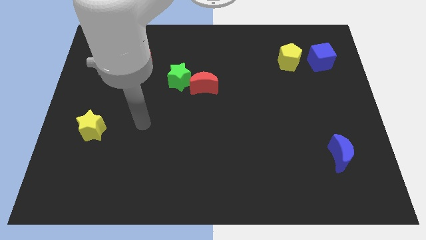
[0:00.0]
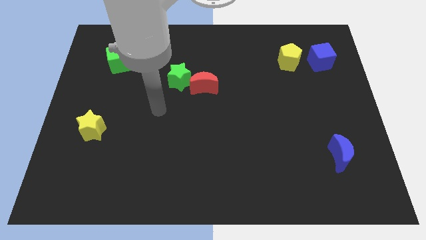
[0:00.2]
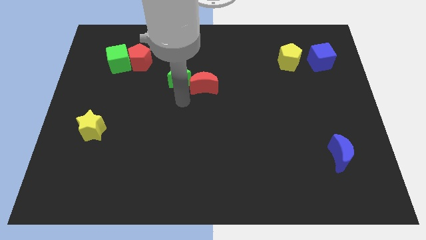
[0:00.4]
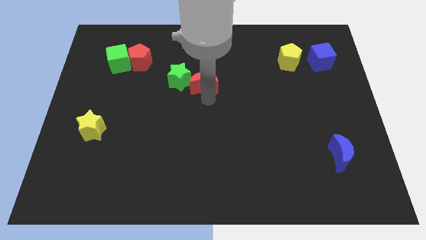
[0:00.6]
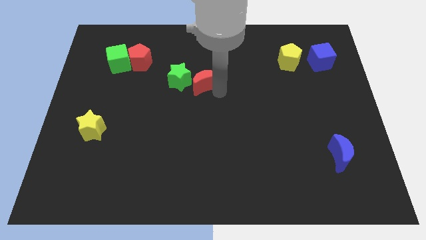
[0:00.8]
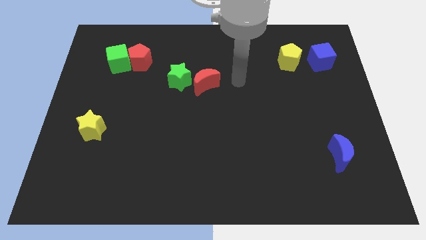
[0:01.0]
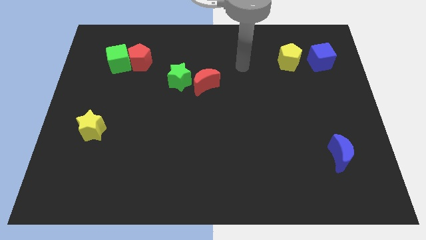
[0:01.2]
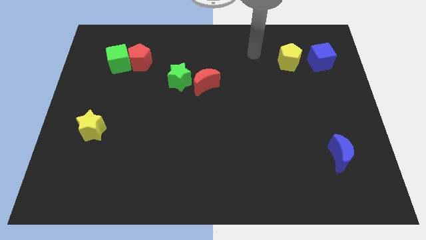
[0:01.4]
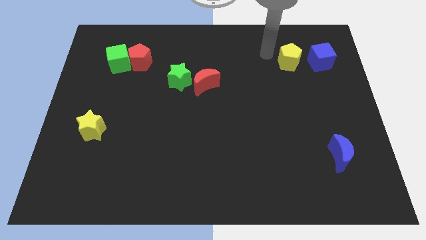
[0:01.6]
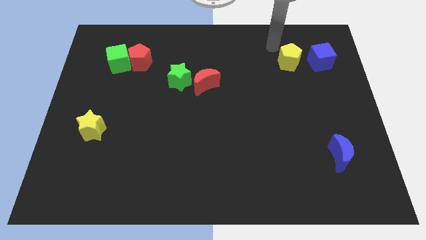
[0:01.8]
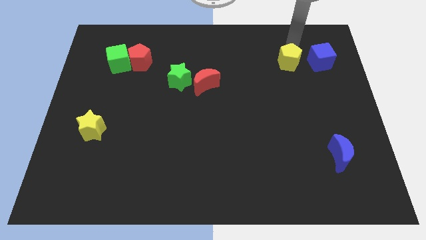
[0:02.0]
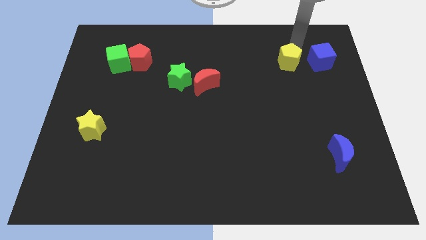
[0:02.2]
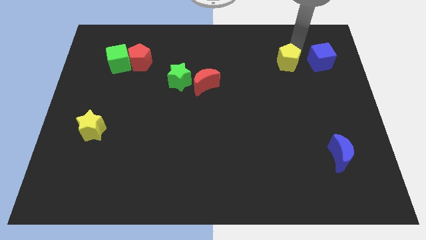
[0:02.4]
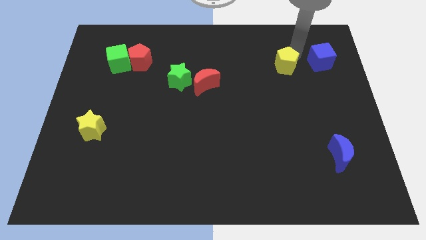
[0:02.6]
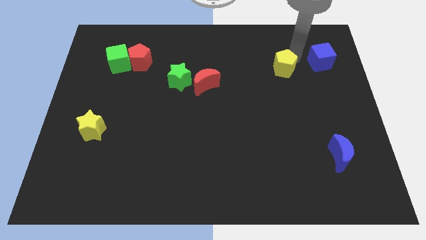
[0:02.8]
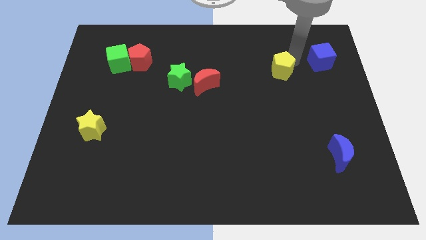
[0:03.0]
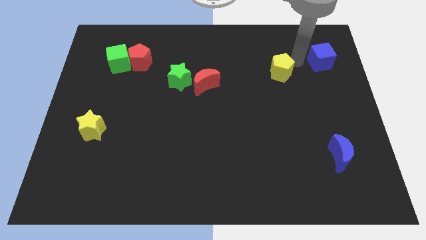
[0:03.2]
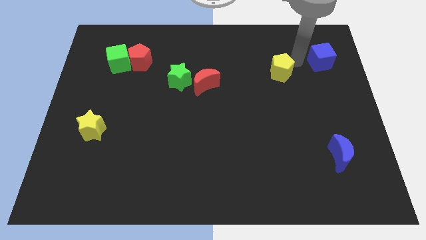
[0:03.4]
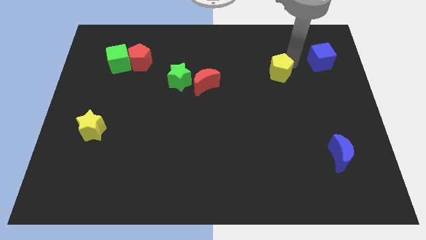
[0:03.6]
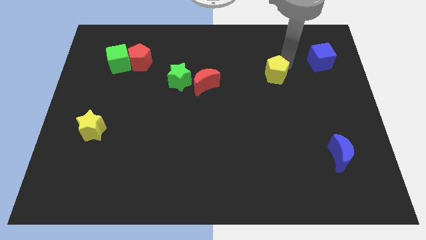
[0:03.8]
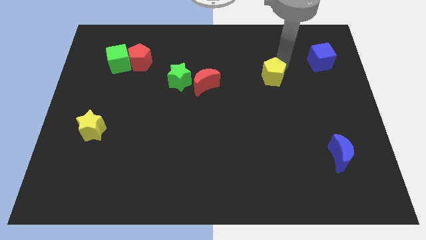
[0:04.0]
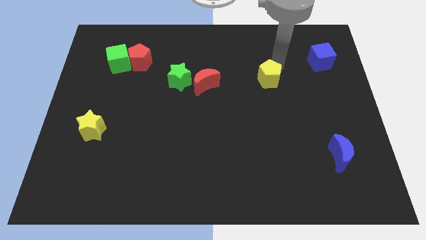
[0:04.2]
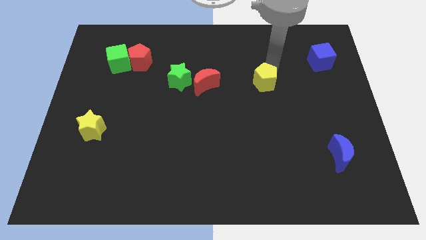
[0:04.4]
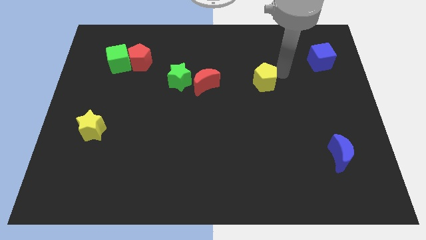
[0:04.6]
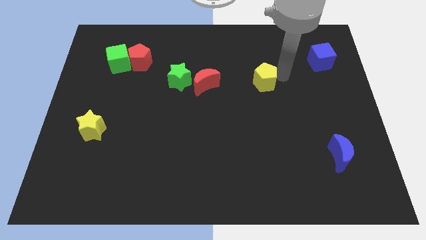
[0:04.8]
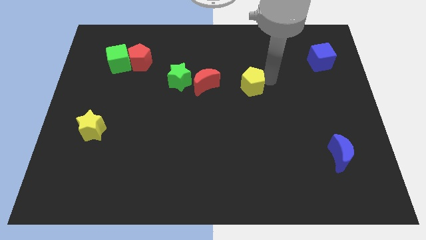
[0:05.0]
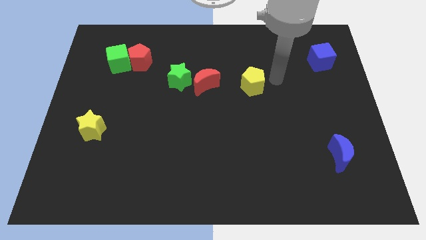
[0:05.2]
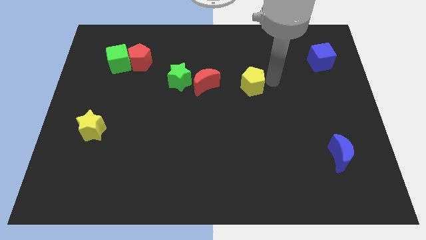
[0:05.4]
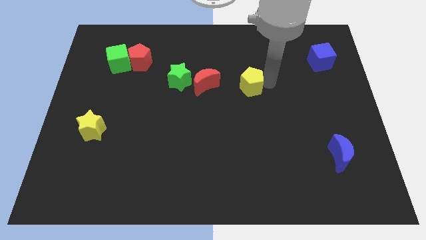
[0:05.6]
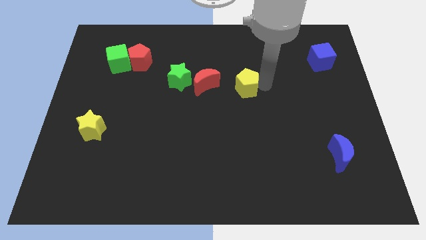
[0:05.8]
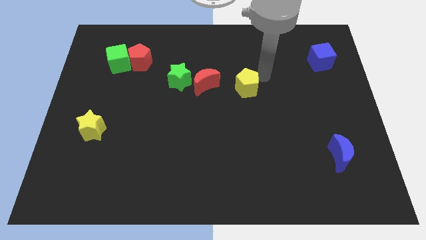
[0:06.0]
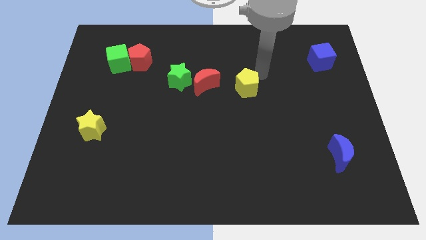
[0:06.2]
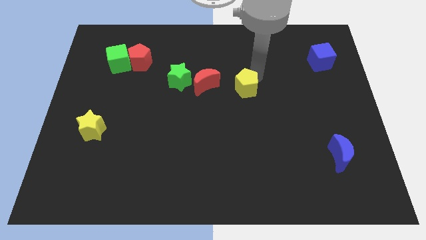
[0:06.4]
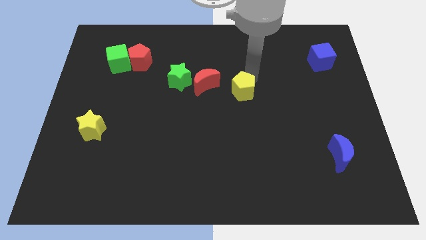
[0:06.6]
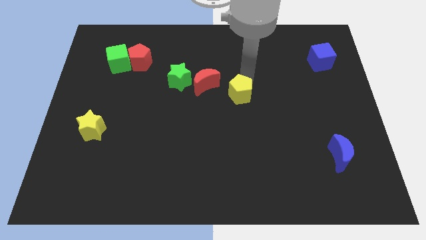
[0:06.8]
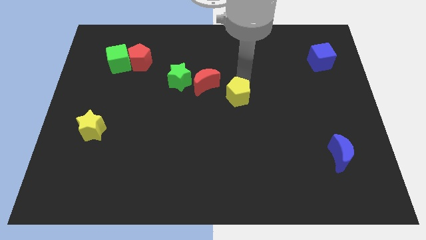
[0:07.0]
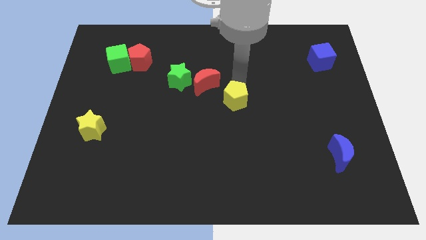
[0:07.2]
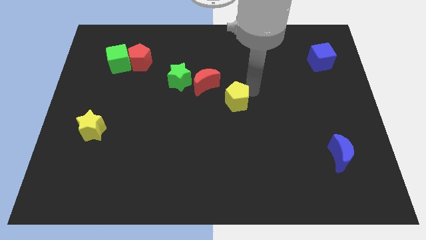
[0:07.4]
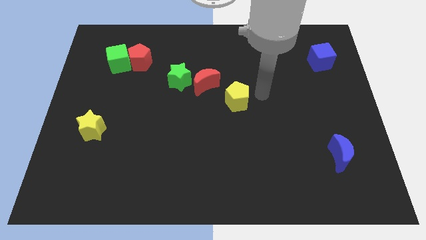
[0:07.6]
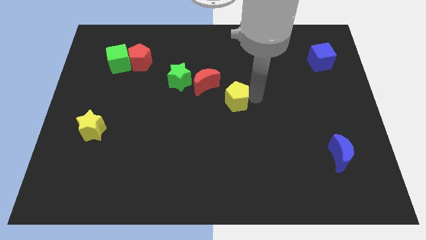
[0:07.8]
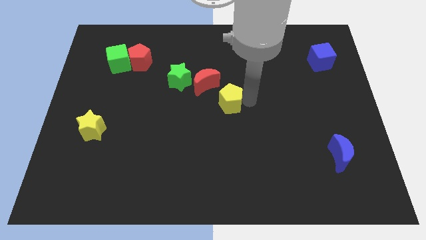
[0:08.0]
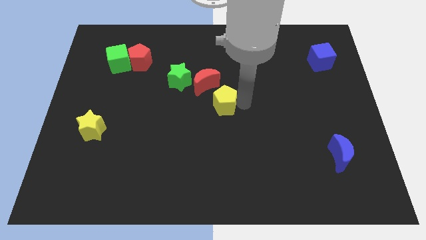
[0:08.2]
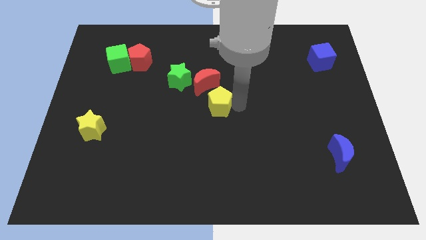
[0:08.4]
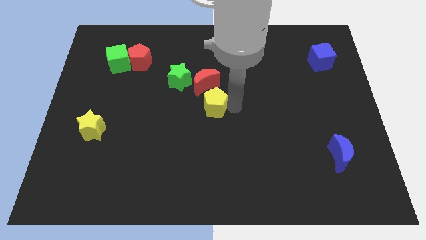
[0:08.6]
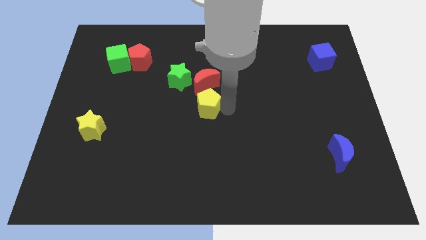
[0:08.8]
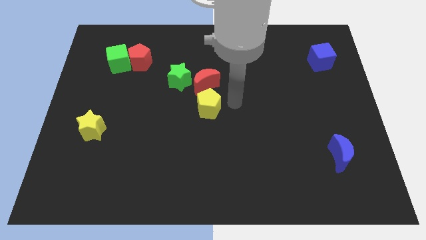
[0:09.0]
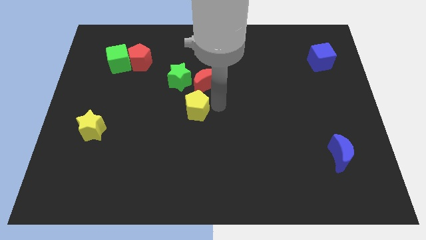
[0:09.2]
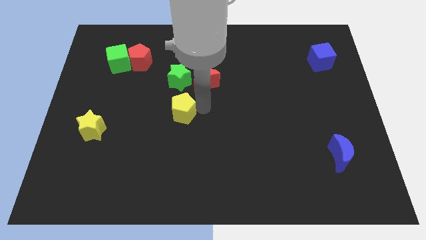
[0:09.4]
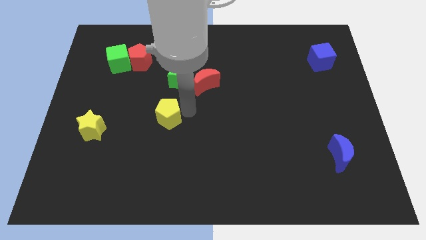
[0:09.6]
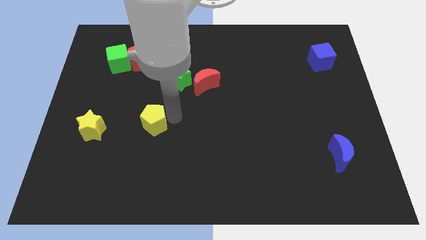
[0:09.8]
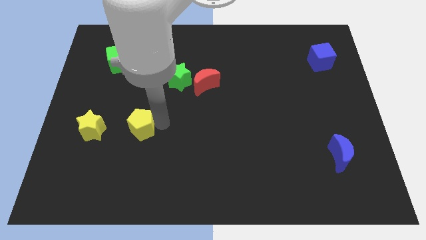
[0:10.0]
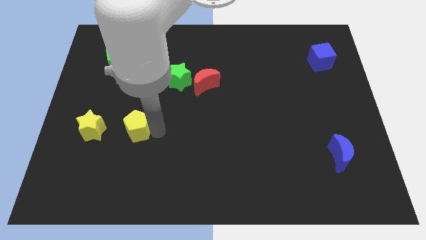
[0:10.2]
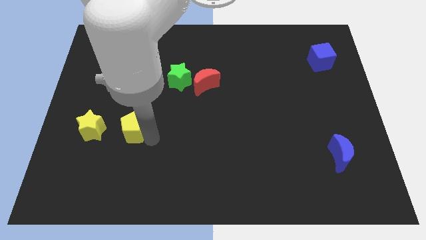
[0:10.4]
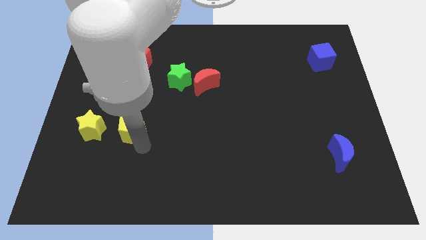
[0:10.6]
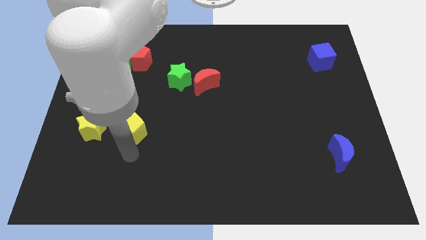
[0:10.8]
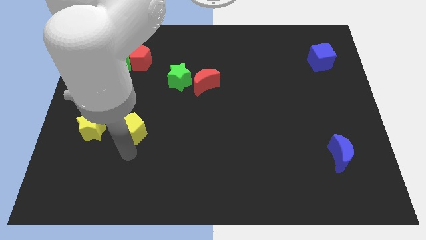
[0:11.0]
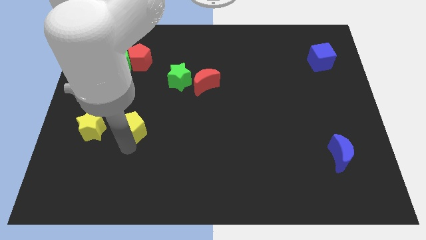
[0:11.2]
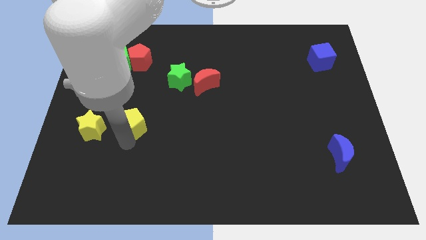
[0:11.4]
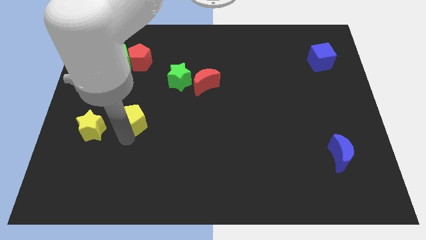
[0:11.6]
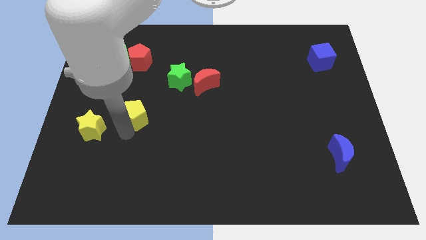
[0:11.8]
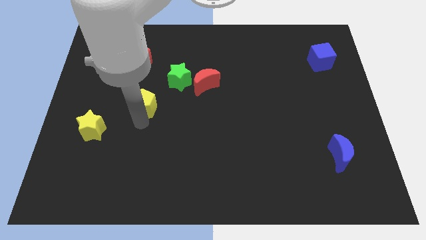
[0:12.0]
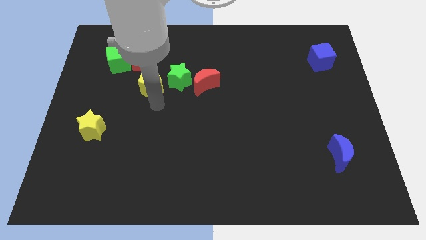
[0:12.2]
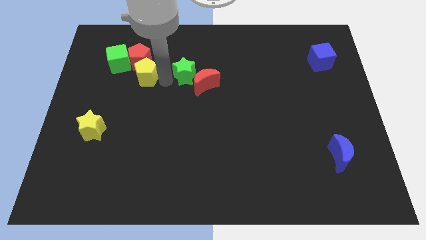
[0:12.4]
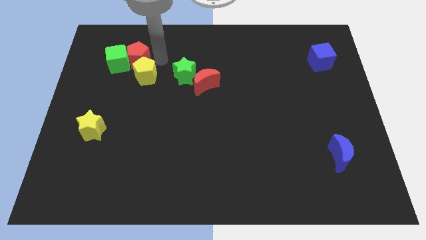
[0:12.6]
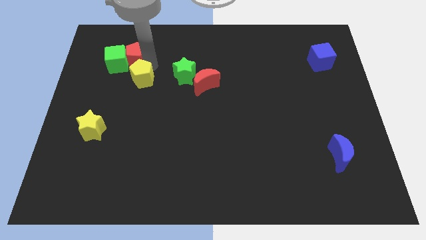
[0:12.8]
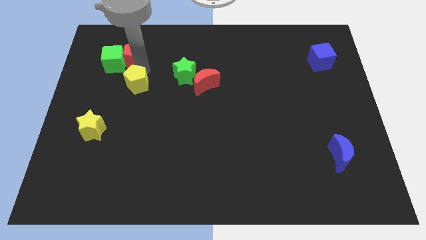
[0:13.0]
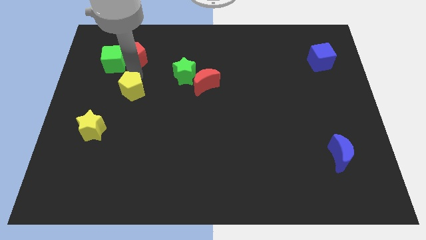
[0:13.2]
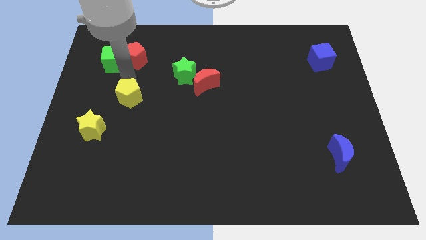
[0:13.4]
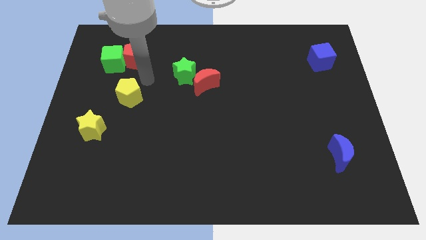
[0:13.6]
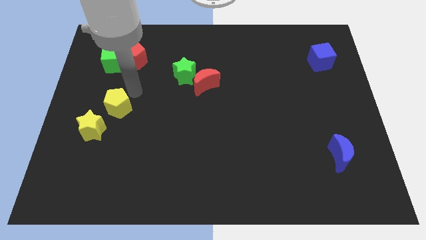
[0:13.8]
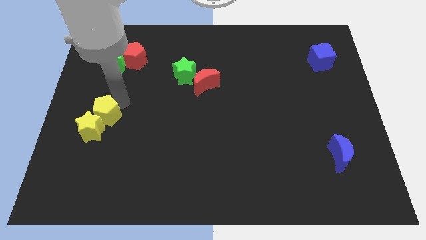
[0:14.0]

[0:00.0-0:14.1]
push the yellow pentagon to the yellow star
